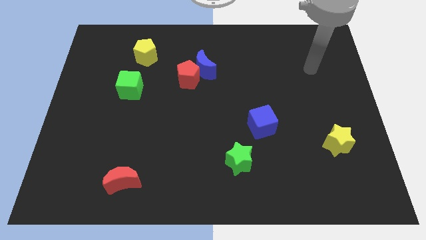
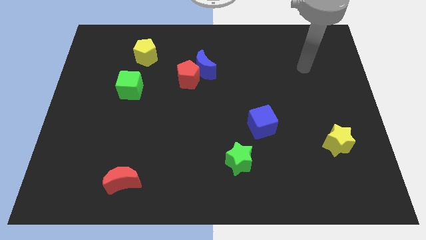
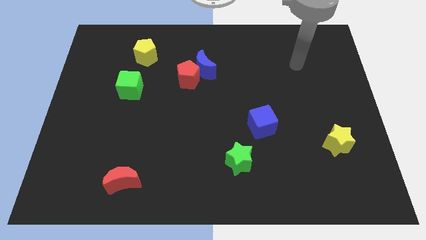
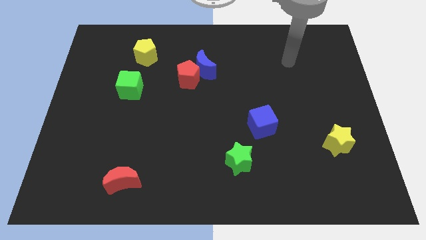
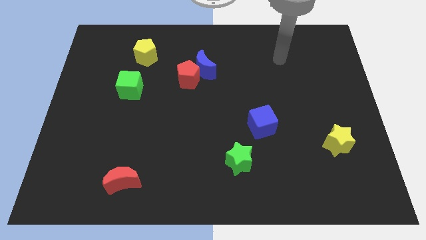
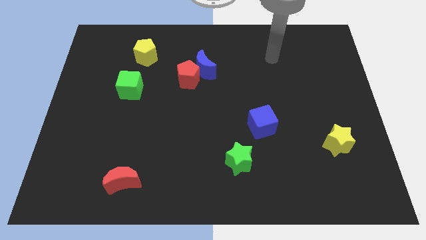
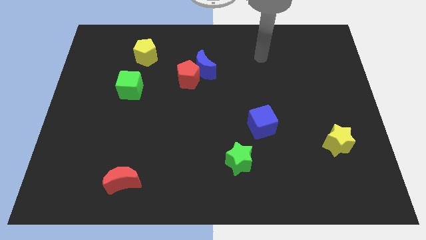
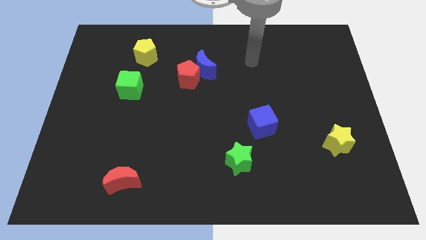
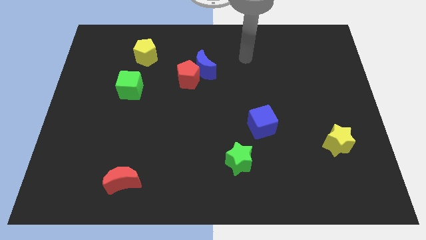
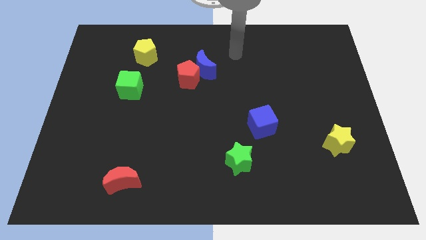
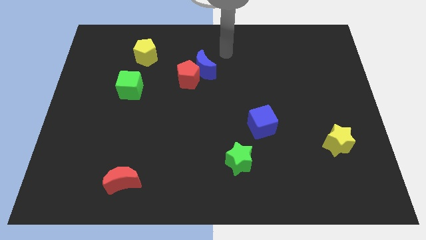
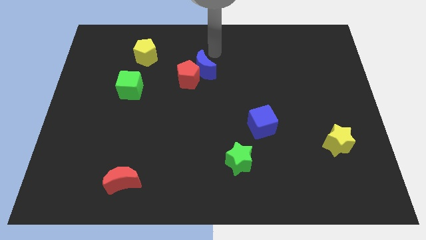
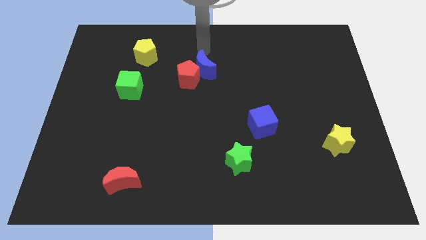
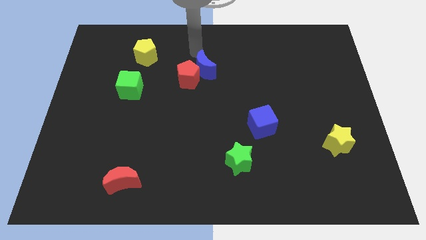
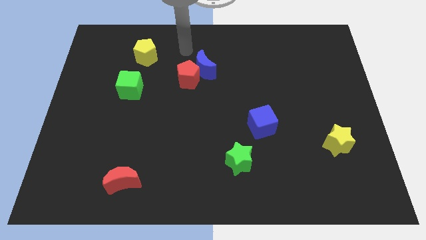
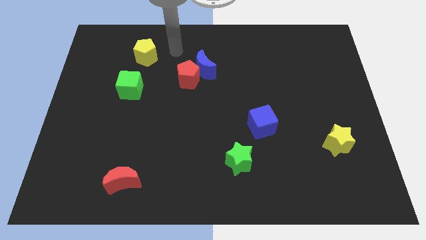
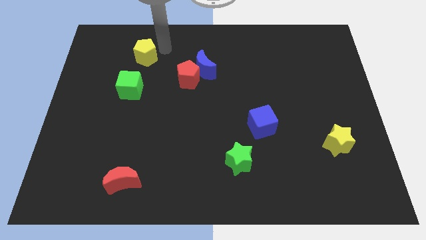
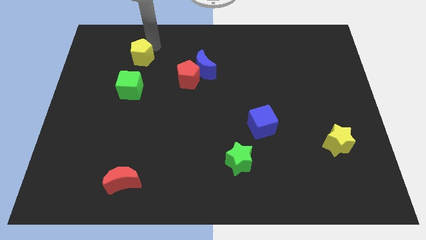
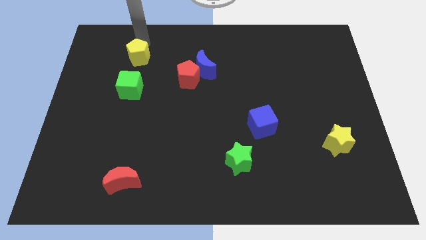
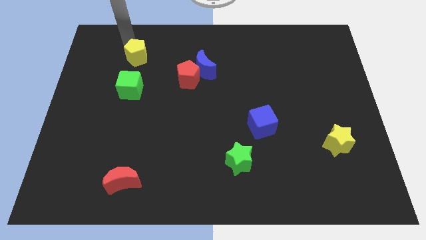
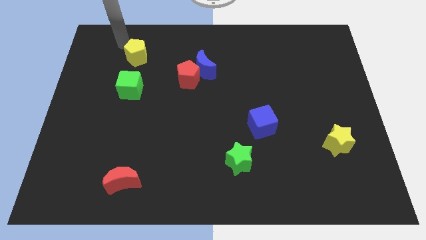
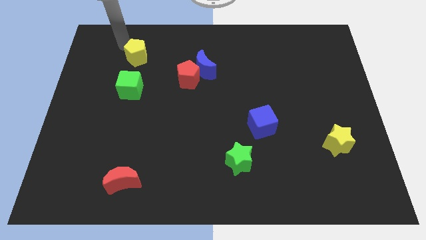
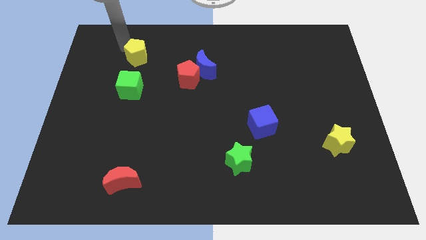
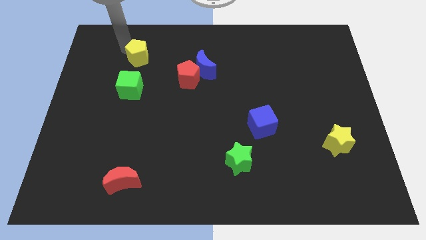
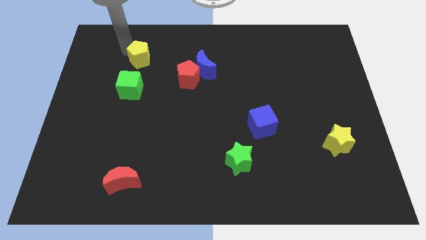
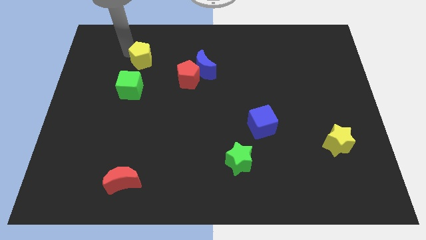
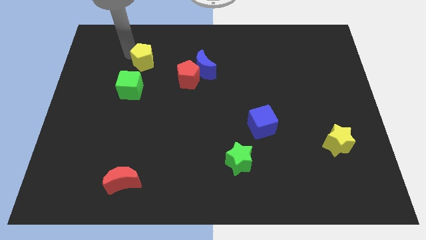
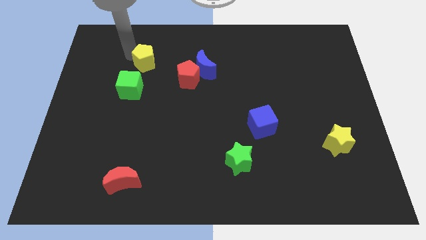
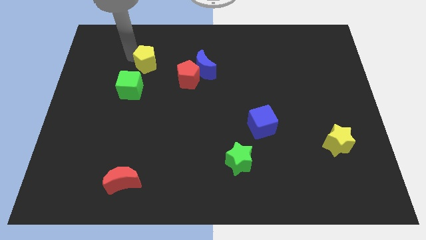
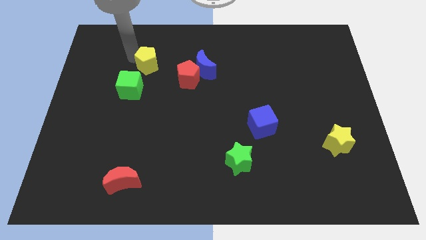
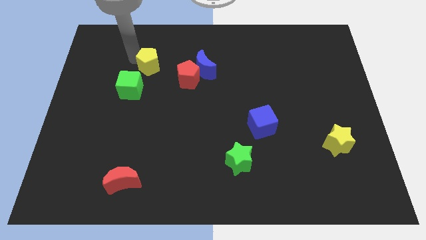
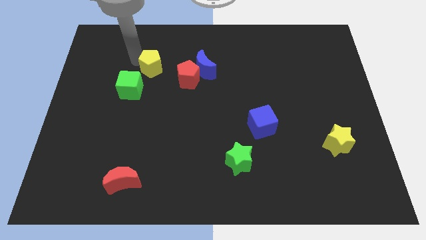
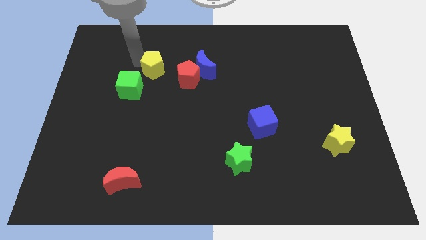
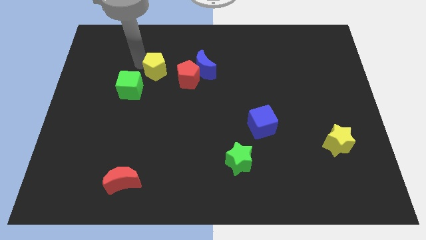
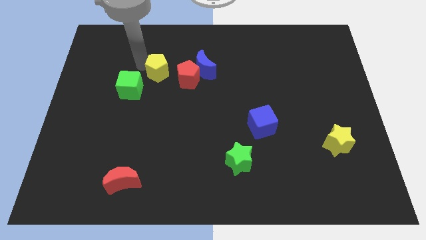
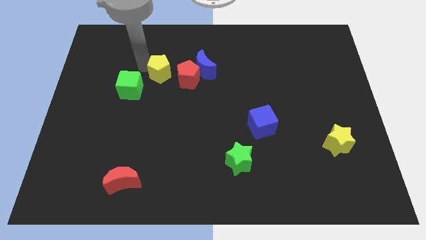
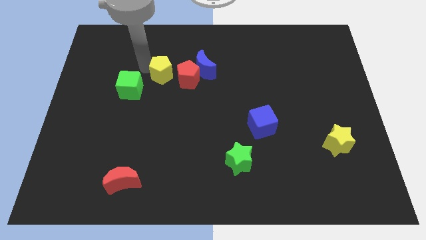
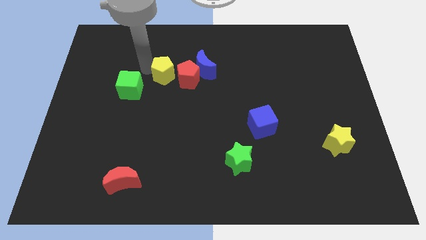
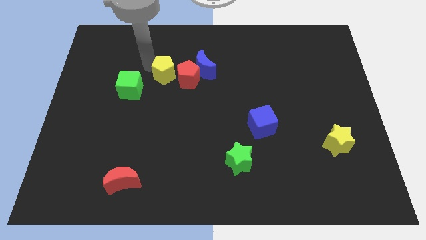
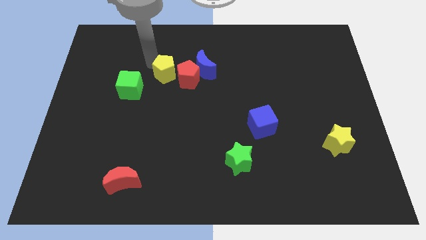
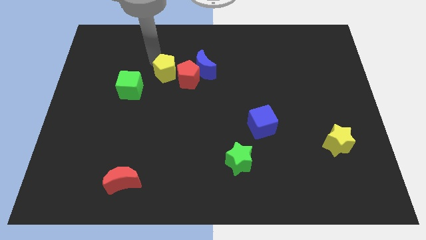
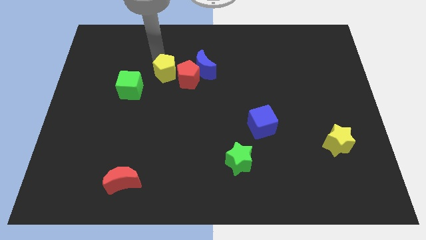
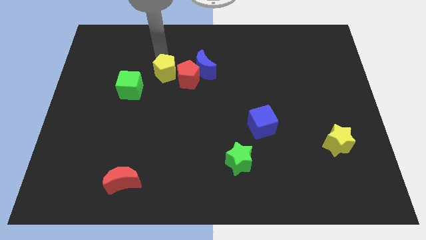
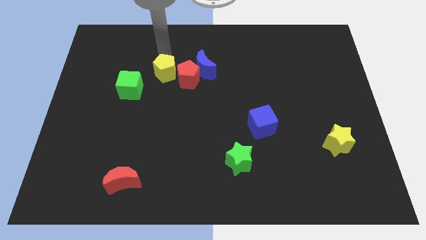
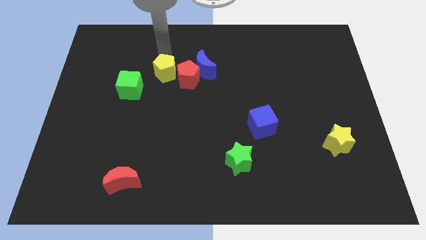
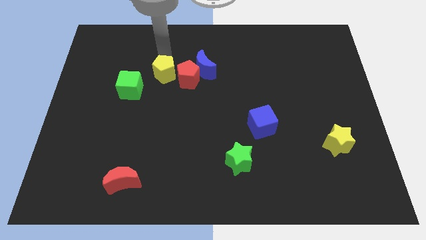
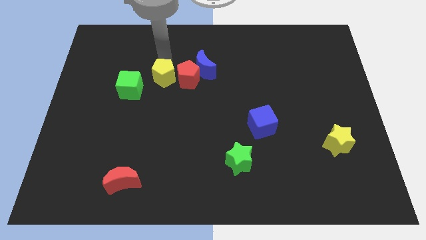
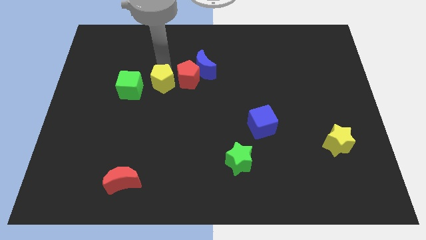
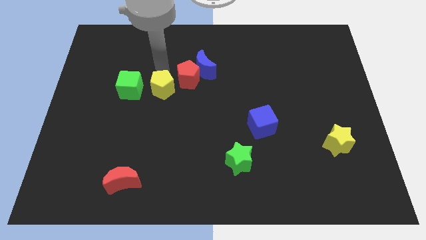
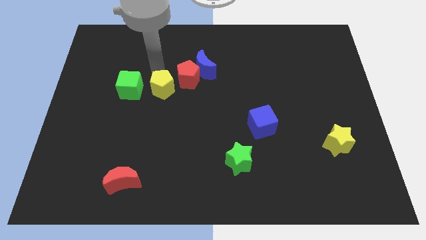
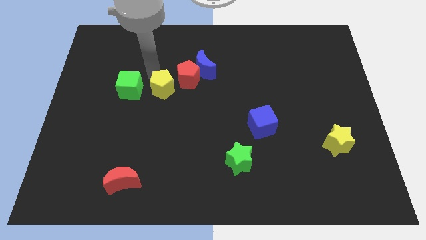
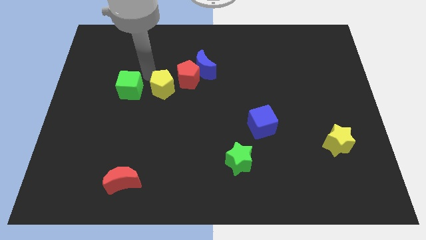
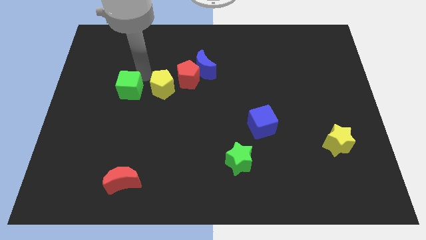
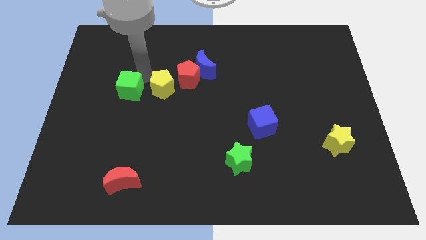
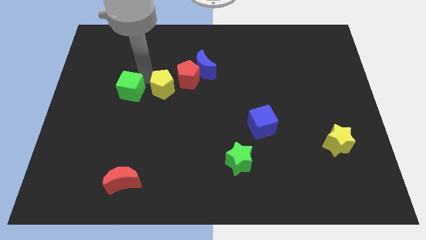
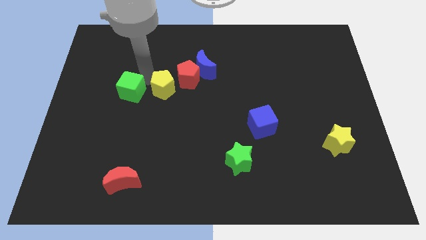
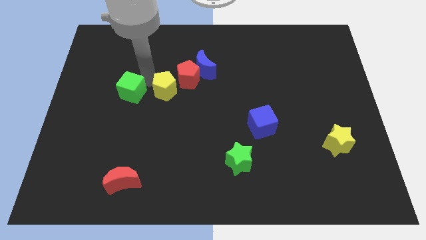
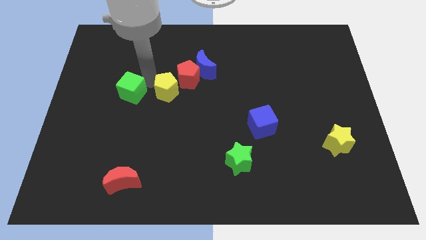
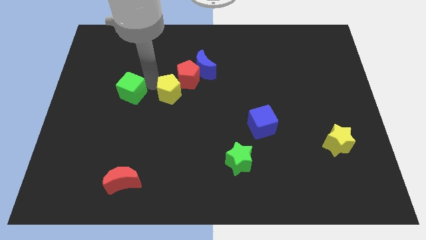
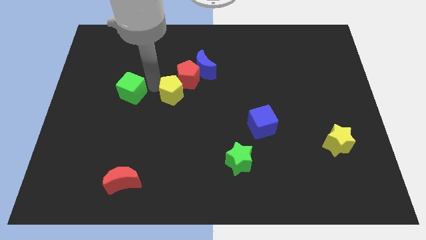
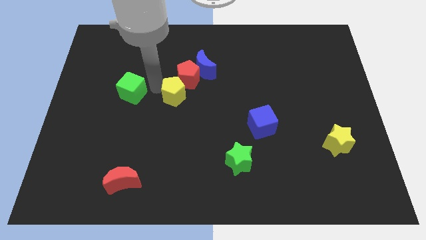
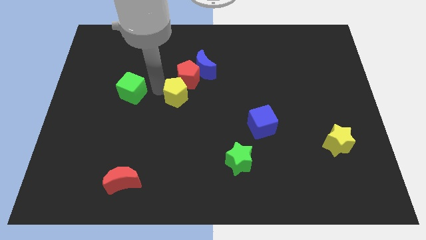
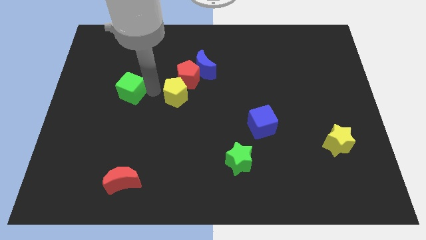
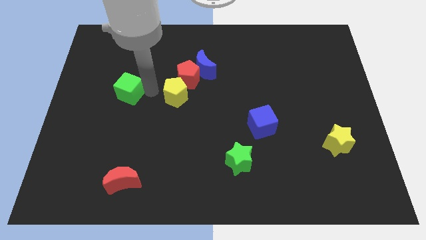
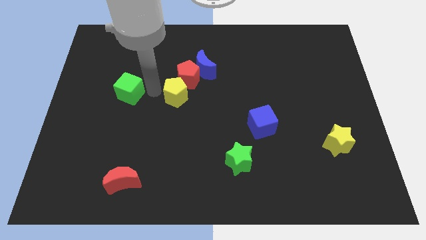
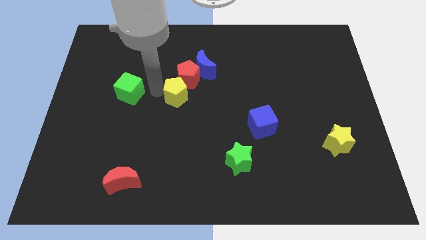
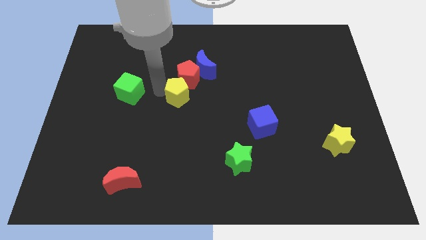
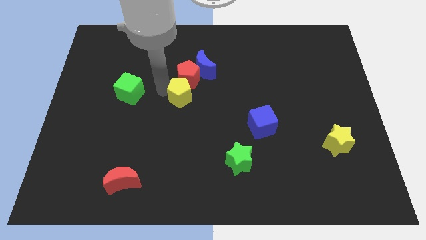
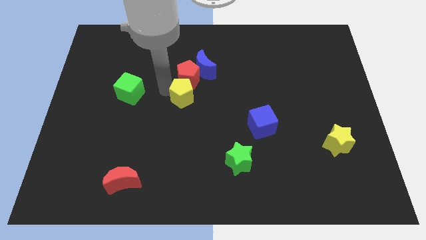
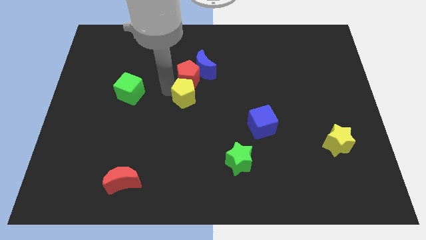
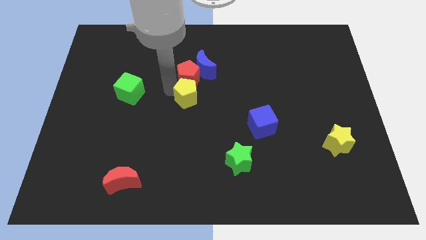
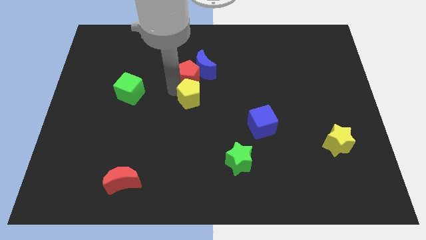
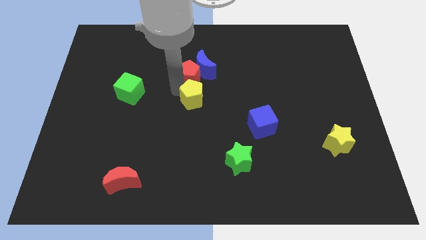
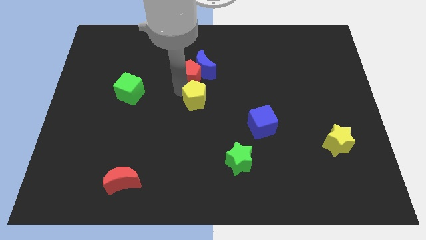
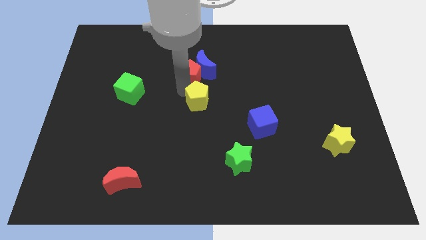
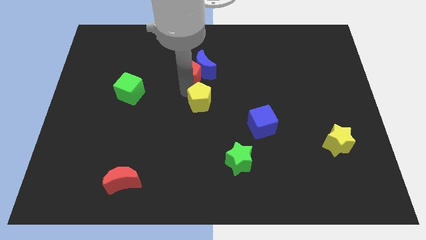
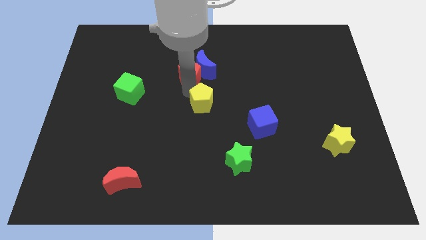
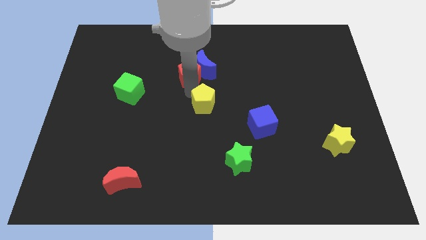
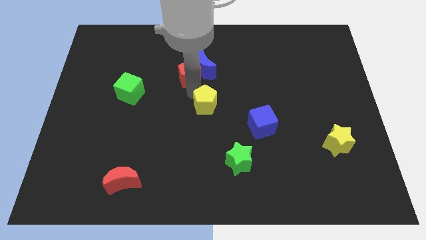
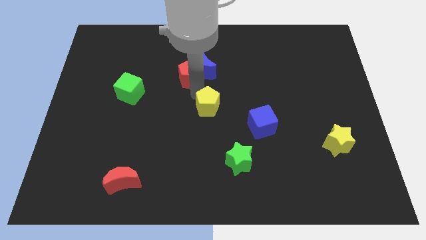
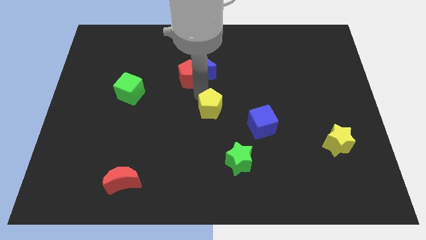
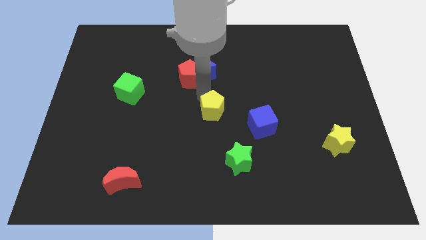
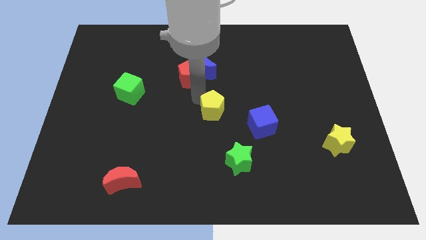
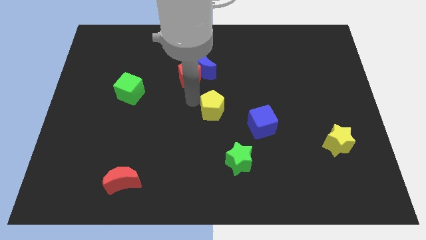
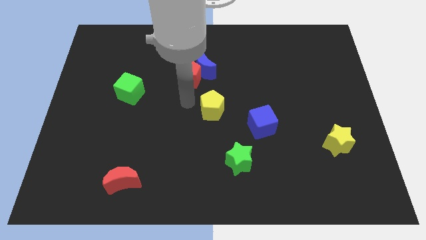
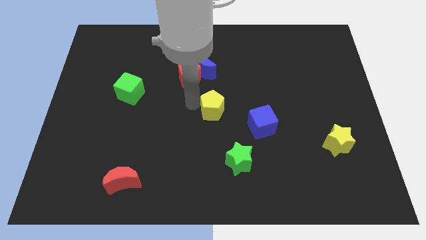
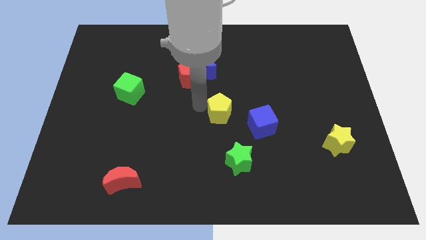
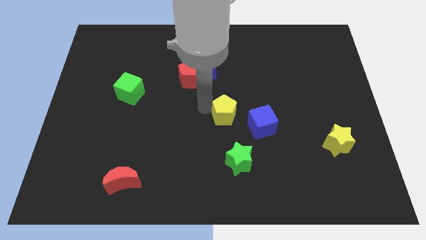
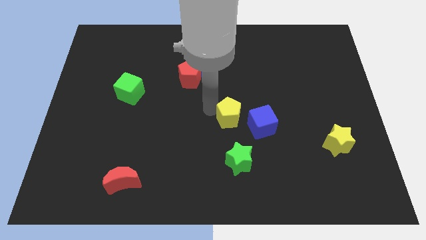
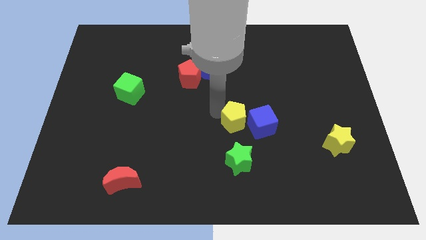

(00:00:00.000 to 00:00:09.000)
move the yellow pentagon to the blue cube
